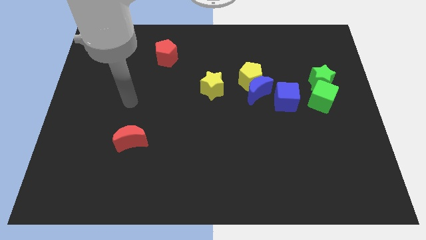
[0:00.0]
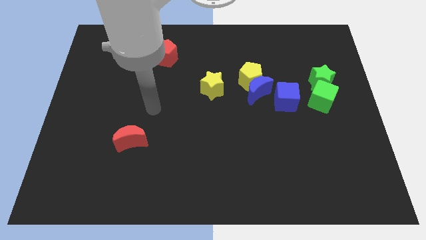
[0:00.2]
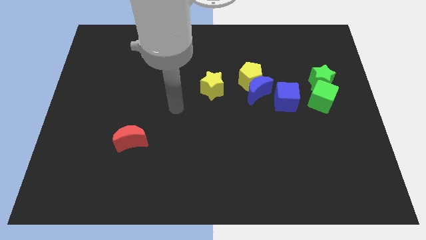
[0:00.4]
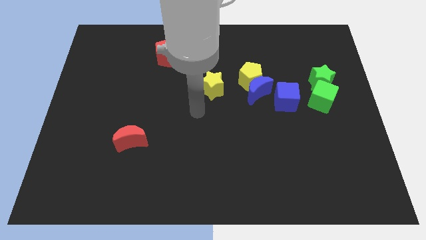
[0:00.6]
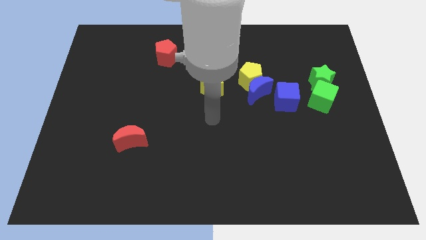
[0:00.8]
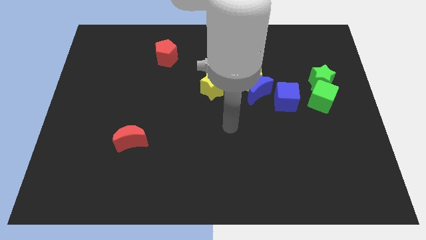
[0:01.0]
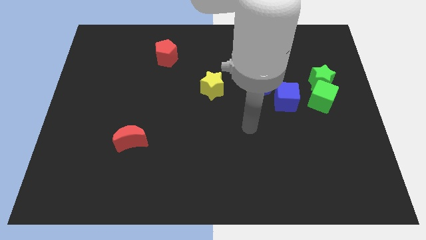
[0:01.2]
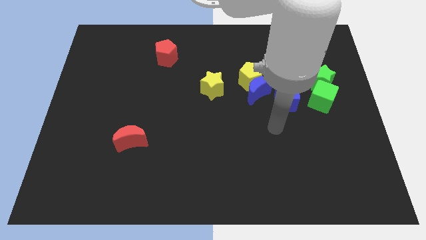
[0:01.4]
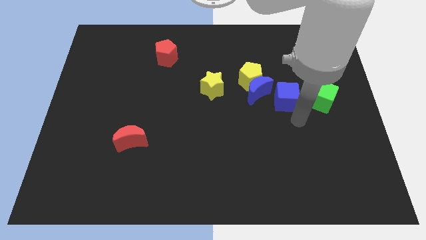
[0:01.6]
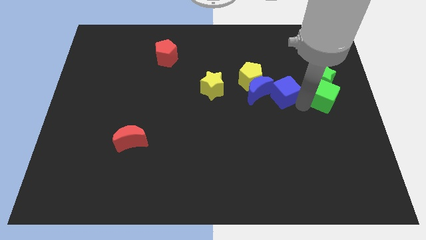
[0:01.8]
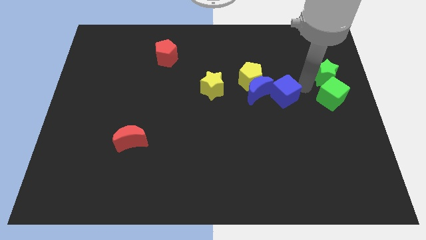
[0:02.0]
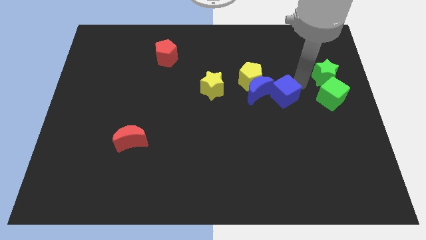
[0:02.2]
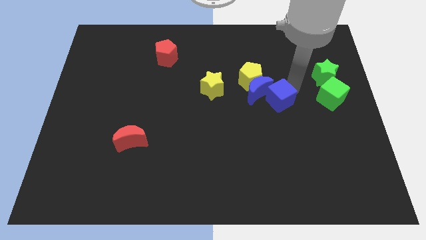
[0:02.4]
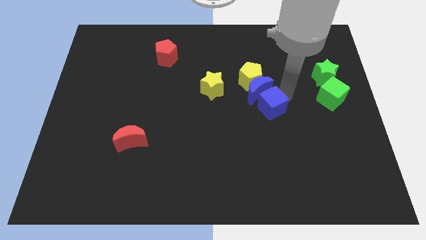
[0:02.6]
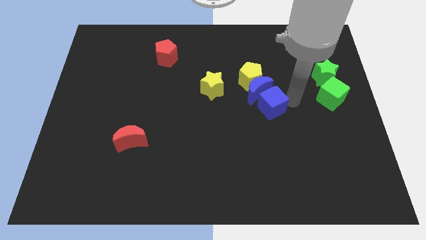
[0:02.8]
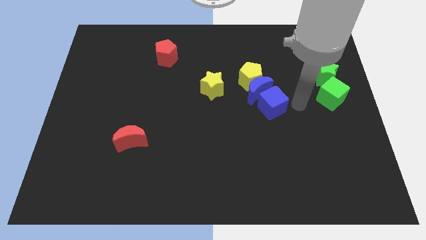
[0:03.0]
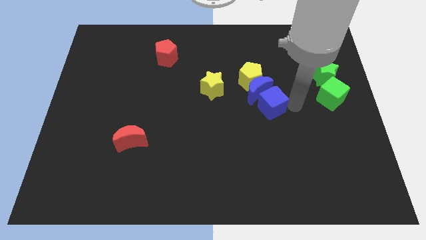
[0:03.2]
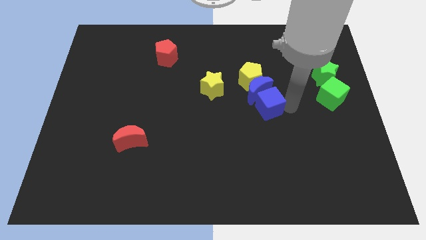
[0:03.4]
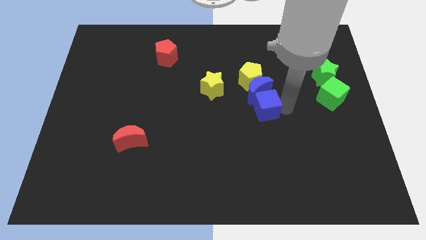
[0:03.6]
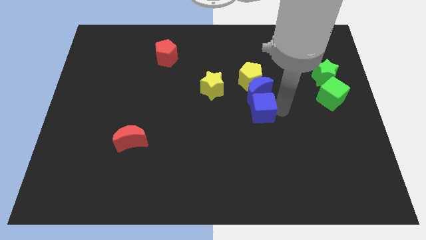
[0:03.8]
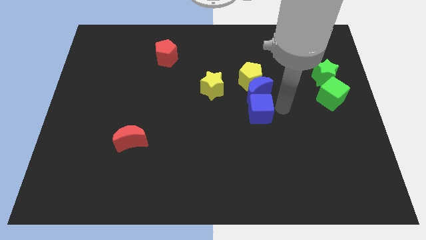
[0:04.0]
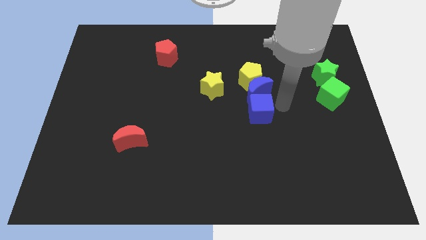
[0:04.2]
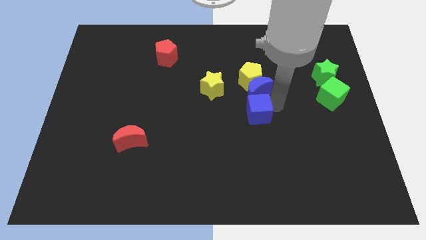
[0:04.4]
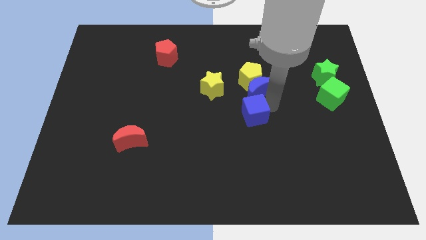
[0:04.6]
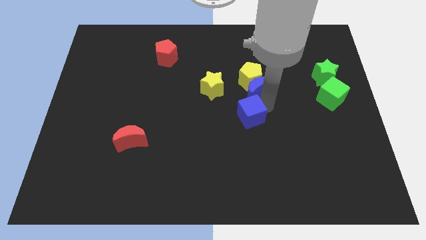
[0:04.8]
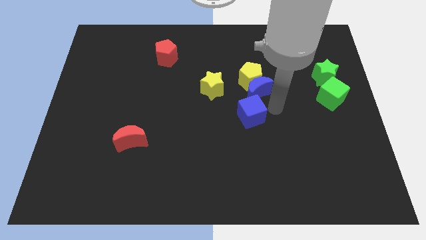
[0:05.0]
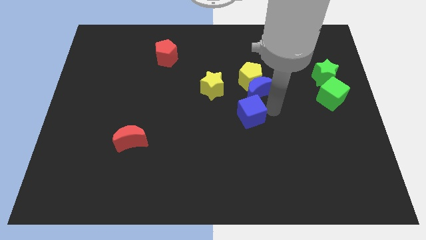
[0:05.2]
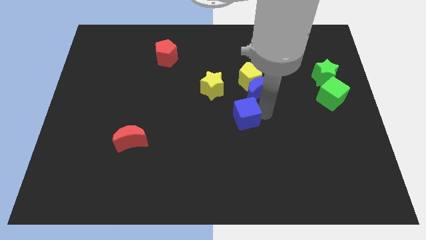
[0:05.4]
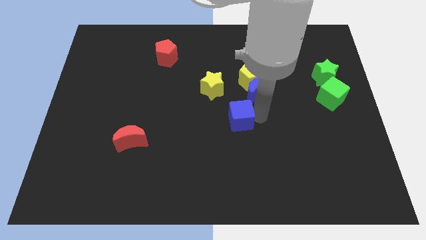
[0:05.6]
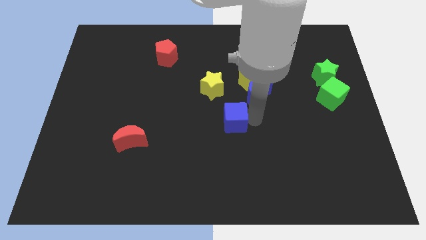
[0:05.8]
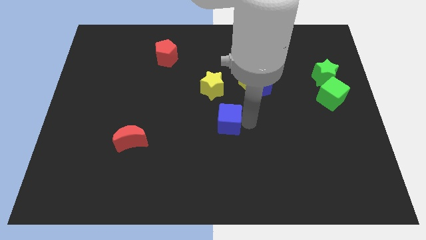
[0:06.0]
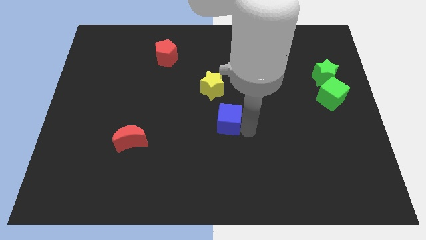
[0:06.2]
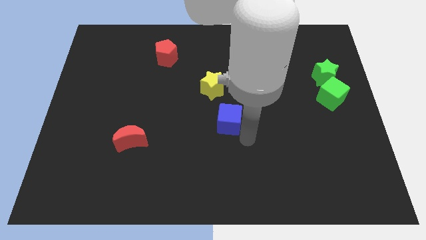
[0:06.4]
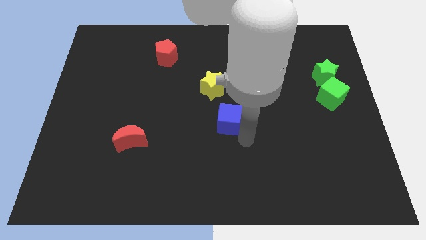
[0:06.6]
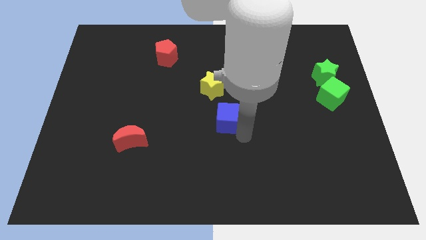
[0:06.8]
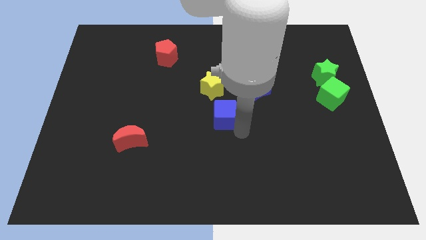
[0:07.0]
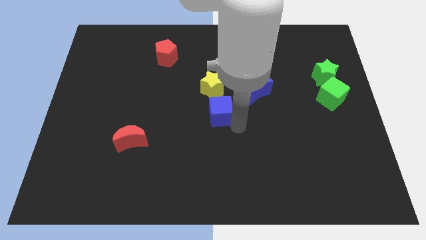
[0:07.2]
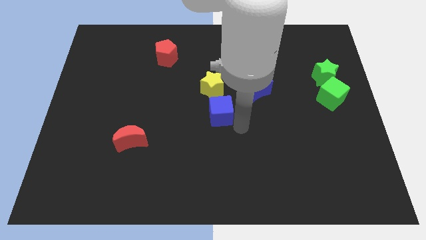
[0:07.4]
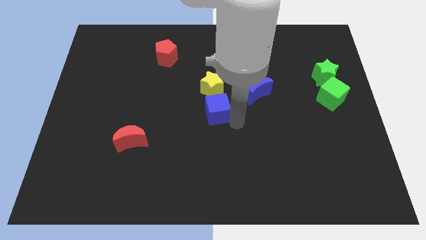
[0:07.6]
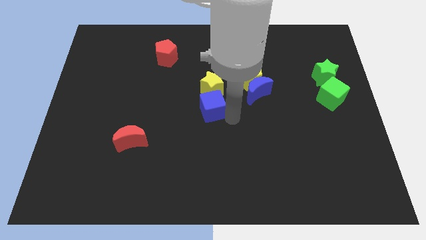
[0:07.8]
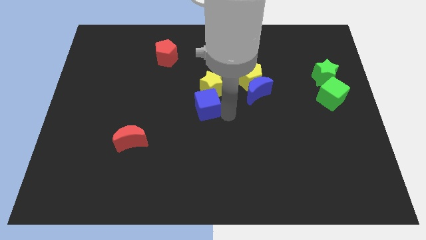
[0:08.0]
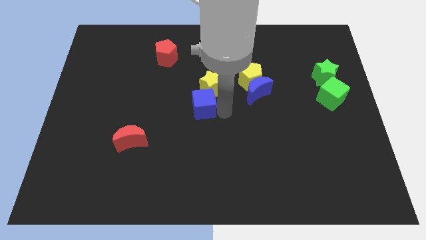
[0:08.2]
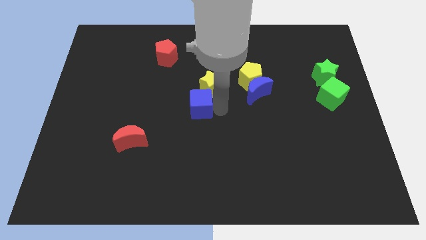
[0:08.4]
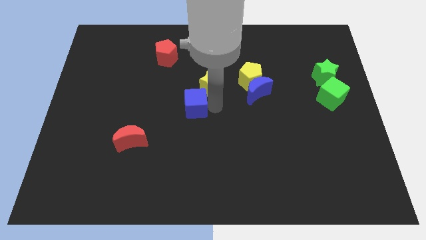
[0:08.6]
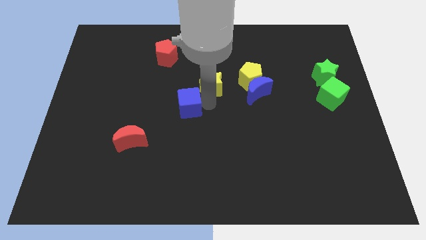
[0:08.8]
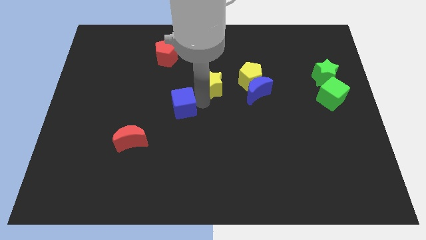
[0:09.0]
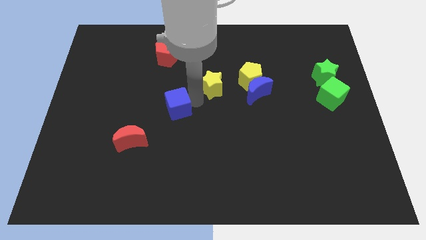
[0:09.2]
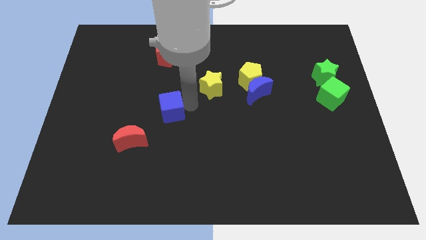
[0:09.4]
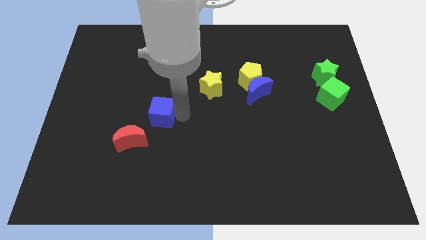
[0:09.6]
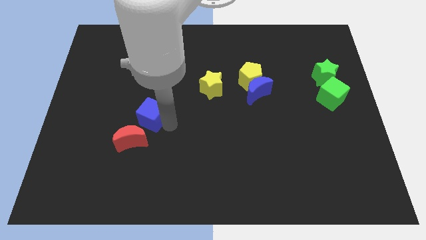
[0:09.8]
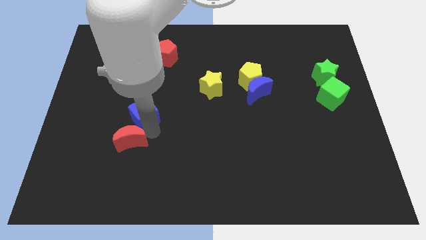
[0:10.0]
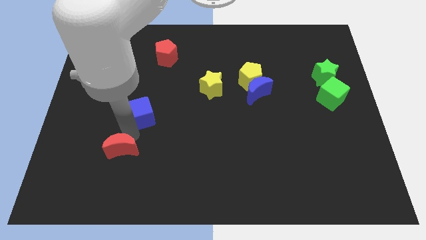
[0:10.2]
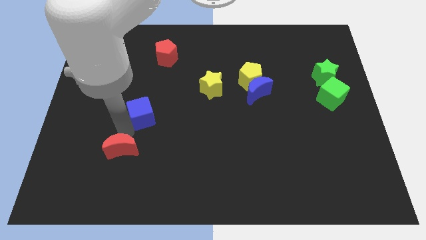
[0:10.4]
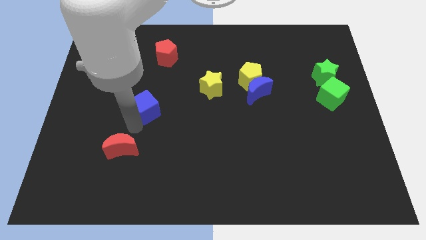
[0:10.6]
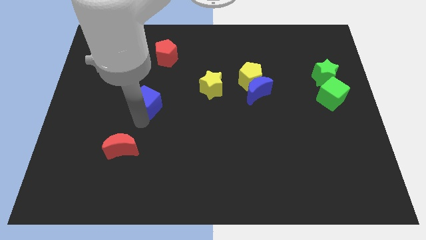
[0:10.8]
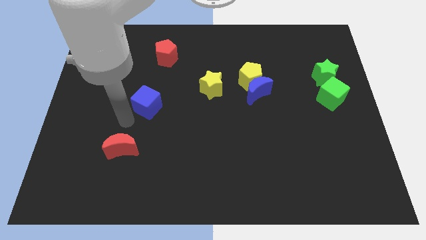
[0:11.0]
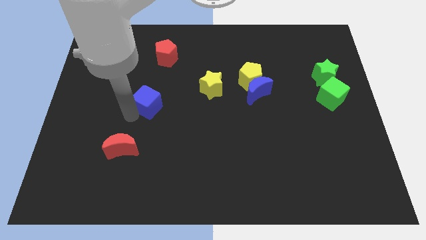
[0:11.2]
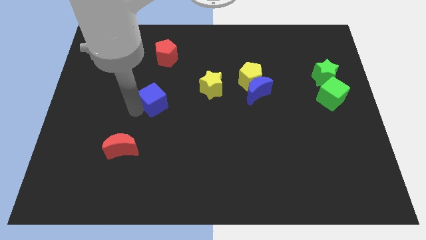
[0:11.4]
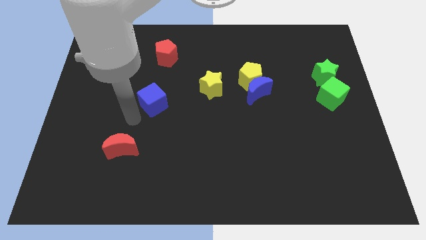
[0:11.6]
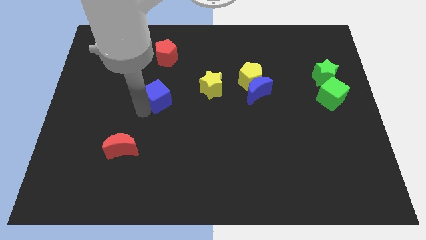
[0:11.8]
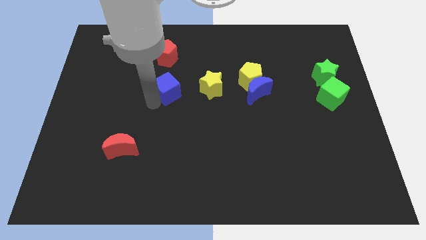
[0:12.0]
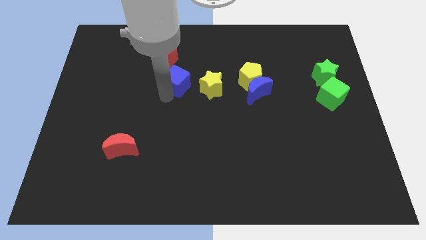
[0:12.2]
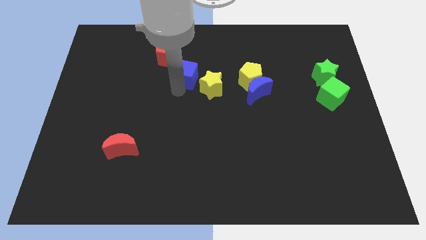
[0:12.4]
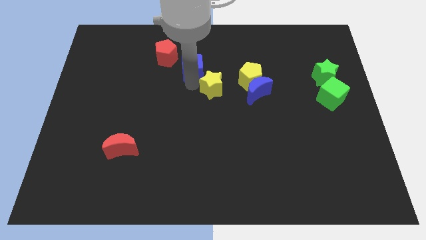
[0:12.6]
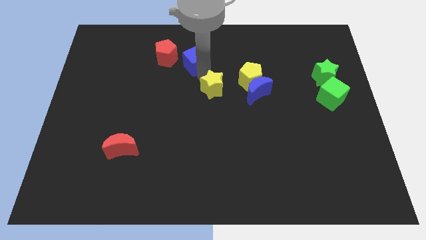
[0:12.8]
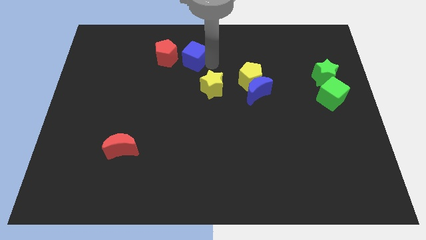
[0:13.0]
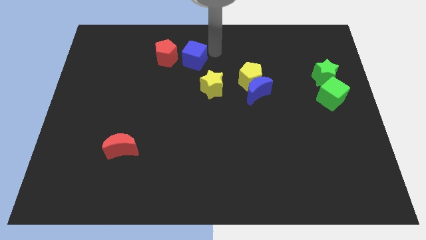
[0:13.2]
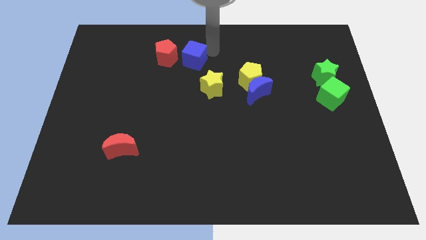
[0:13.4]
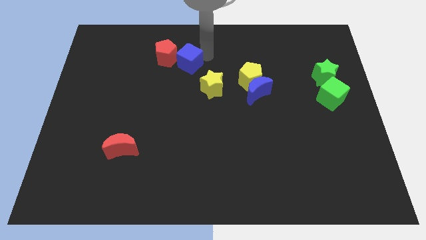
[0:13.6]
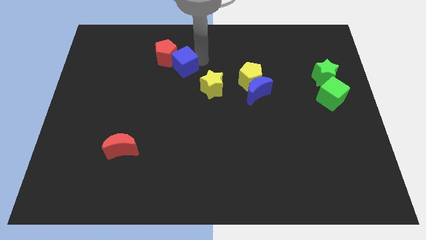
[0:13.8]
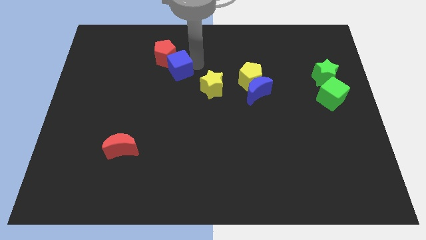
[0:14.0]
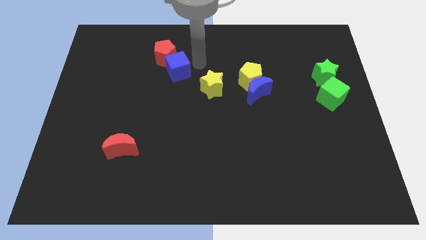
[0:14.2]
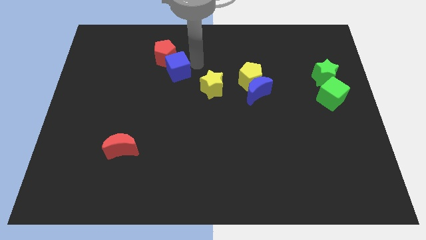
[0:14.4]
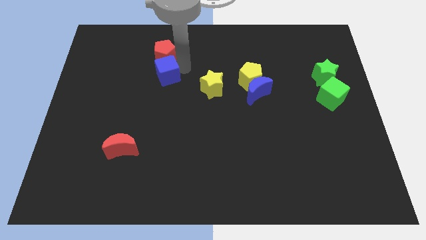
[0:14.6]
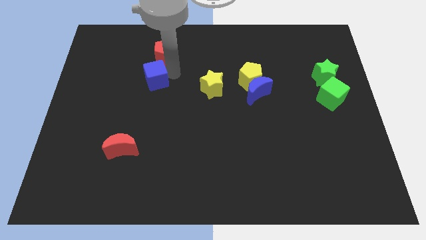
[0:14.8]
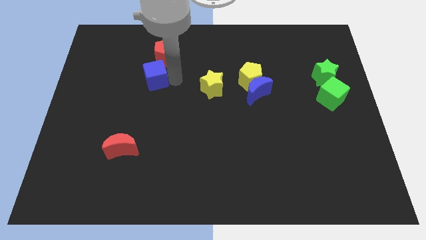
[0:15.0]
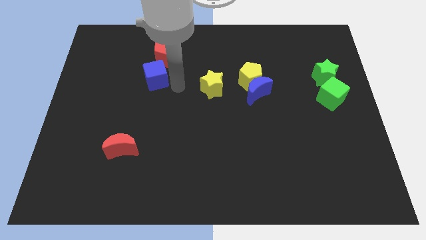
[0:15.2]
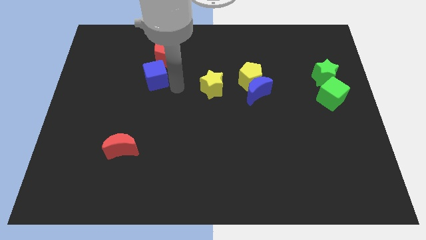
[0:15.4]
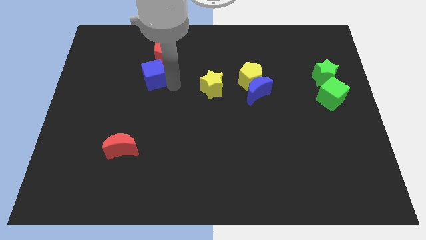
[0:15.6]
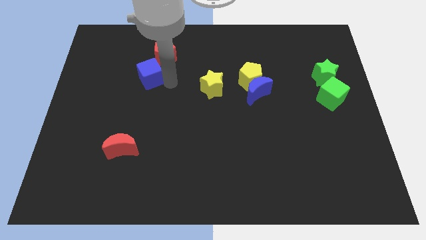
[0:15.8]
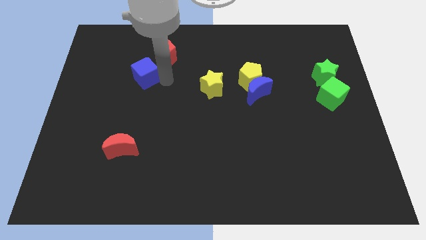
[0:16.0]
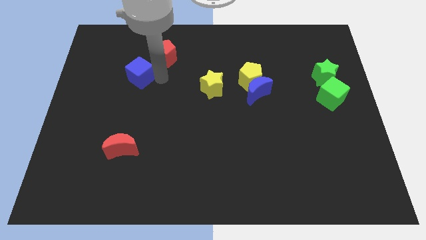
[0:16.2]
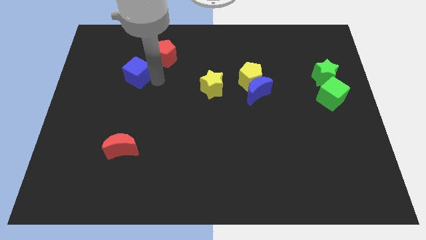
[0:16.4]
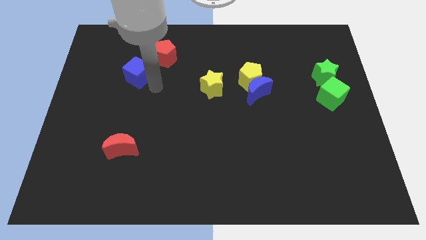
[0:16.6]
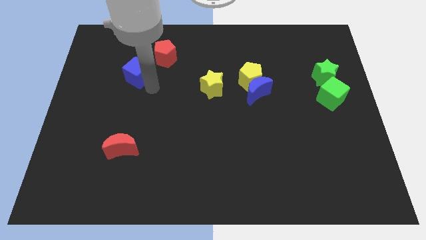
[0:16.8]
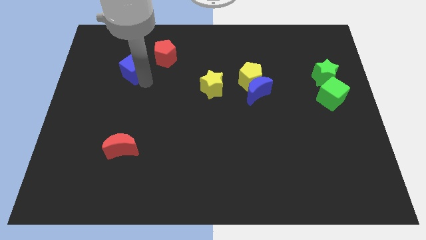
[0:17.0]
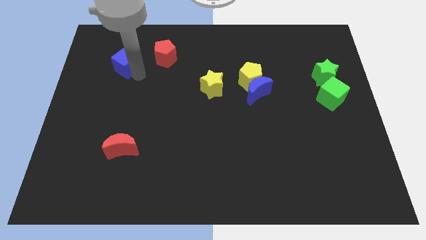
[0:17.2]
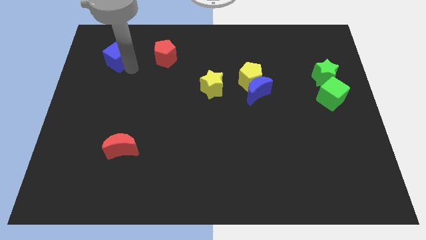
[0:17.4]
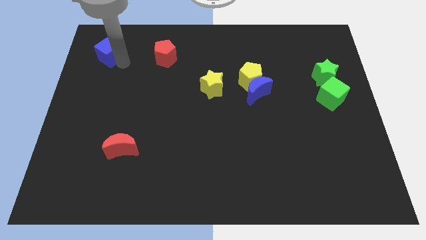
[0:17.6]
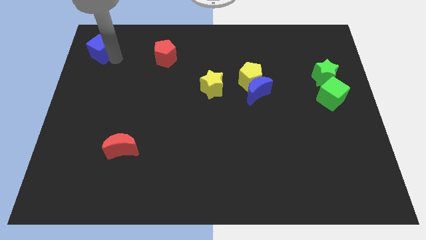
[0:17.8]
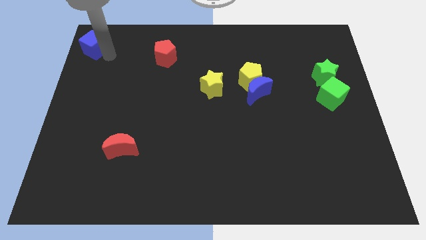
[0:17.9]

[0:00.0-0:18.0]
slide the blue cube to the top left of the board
